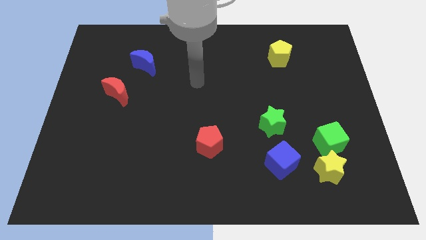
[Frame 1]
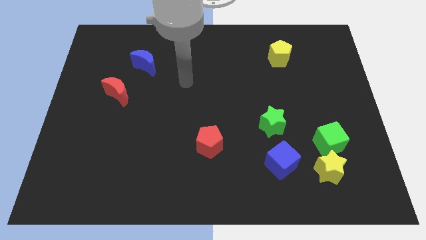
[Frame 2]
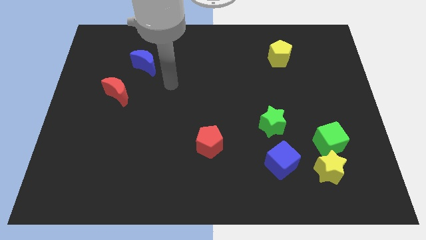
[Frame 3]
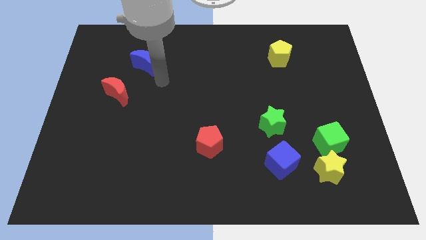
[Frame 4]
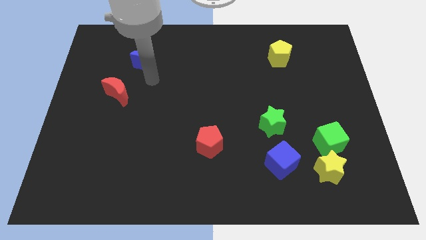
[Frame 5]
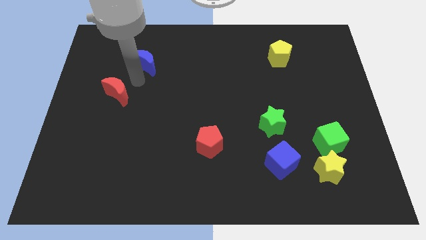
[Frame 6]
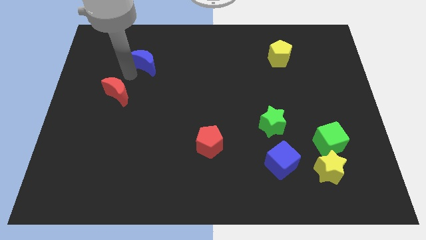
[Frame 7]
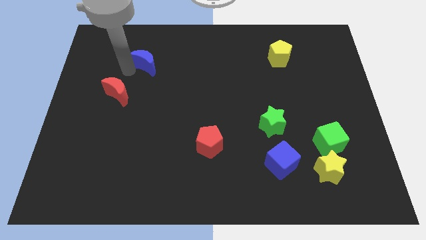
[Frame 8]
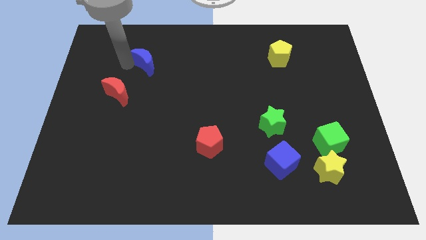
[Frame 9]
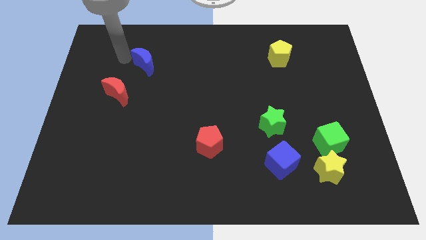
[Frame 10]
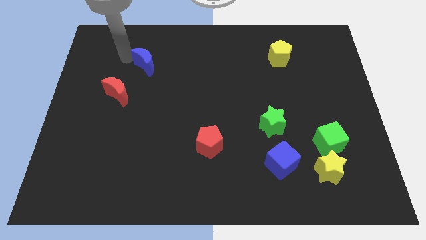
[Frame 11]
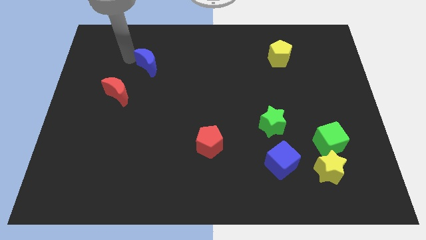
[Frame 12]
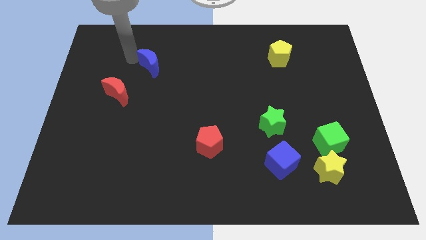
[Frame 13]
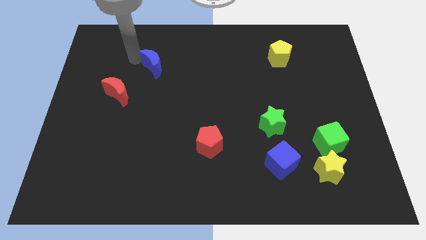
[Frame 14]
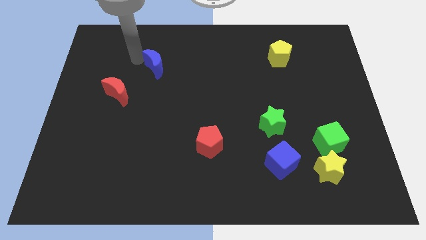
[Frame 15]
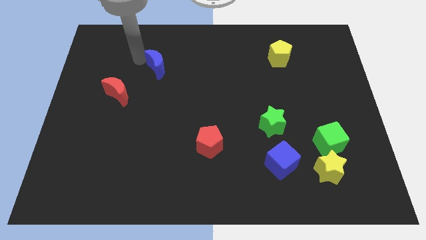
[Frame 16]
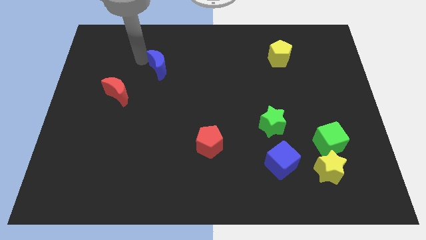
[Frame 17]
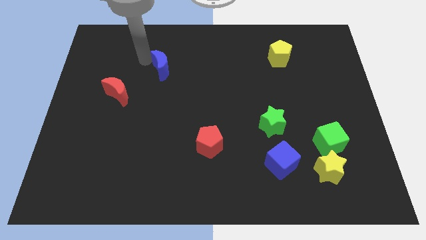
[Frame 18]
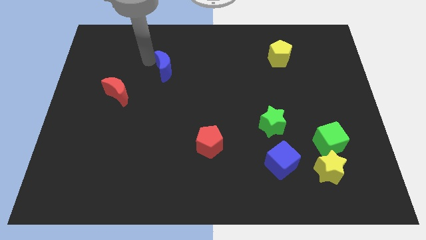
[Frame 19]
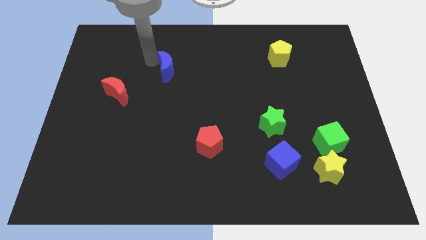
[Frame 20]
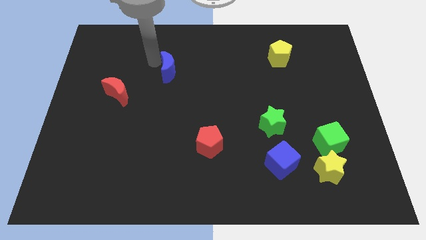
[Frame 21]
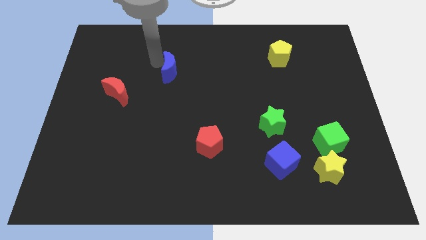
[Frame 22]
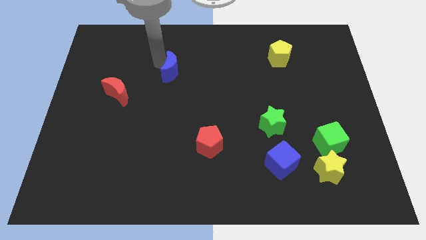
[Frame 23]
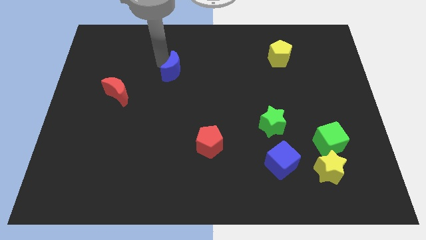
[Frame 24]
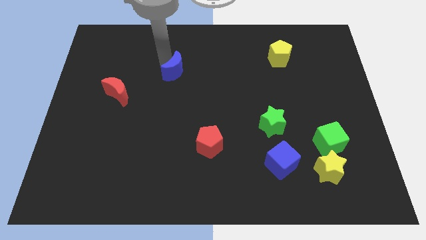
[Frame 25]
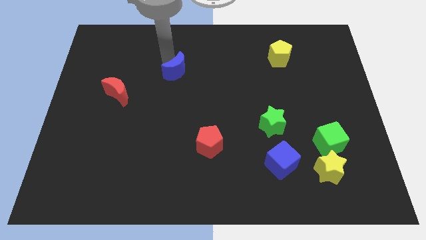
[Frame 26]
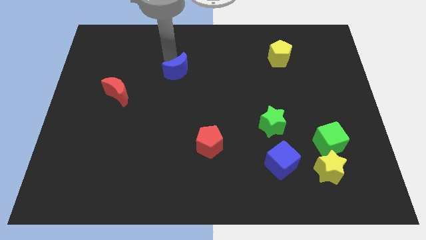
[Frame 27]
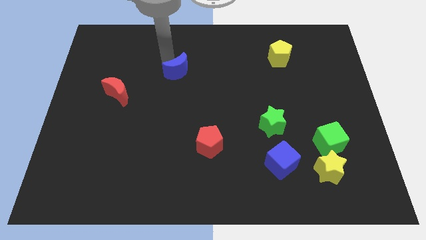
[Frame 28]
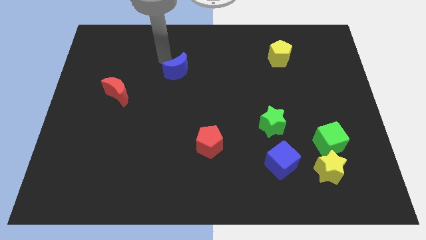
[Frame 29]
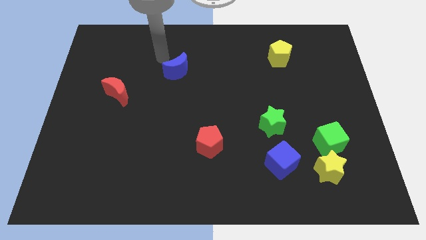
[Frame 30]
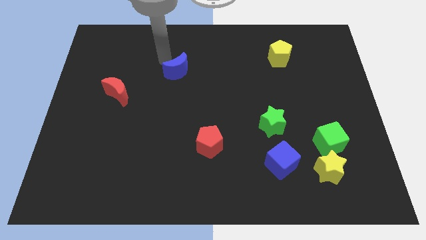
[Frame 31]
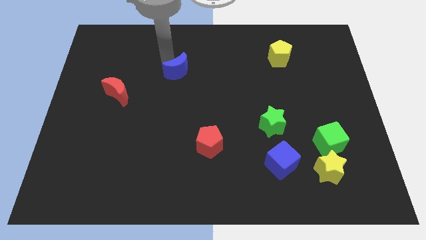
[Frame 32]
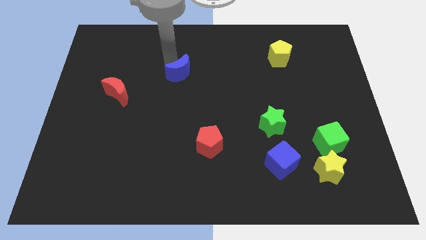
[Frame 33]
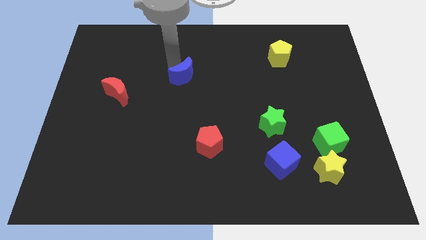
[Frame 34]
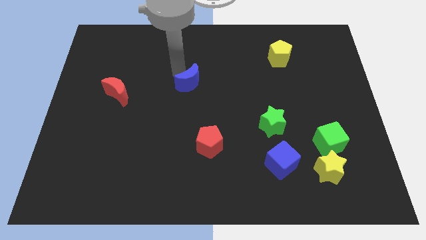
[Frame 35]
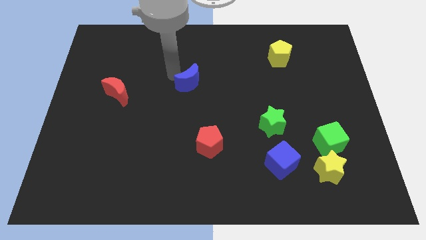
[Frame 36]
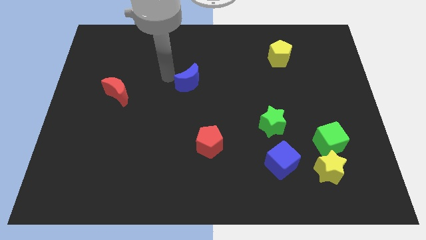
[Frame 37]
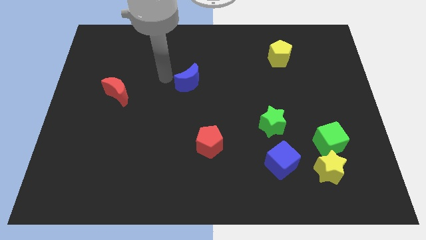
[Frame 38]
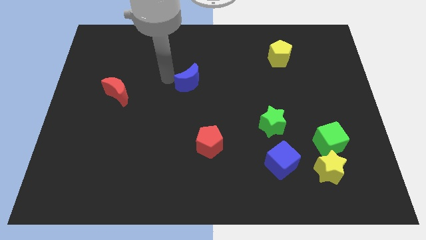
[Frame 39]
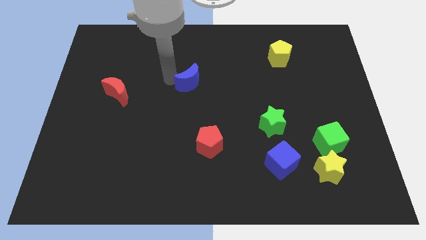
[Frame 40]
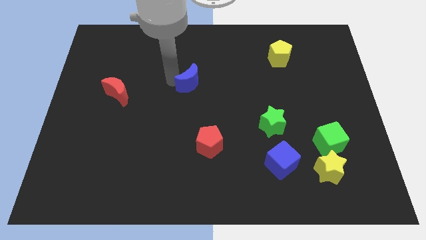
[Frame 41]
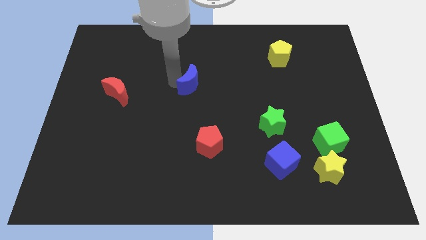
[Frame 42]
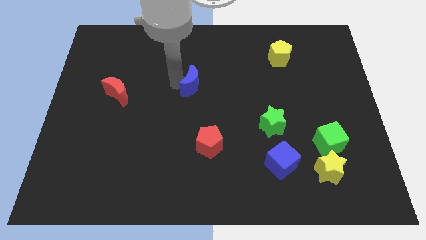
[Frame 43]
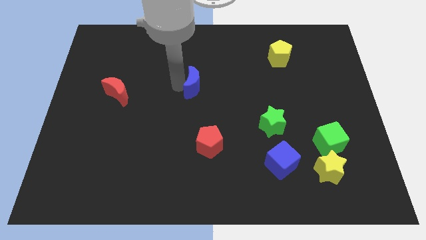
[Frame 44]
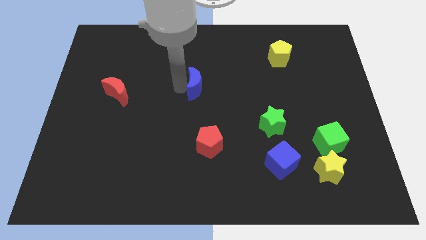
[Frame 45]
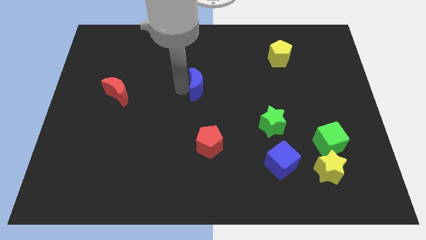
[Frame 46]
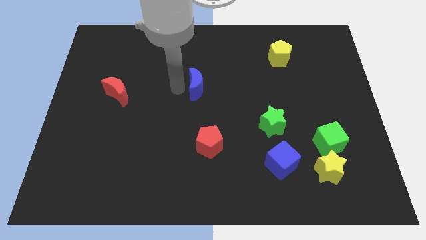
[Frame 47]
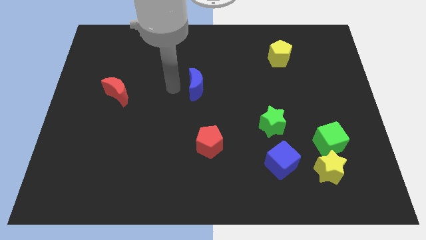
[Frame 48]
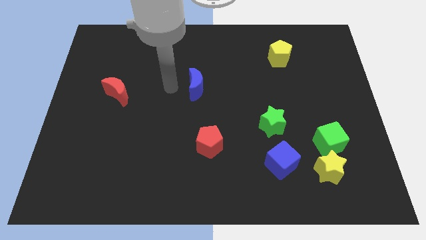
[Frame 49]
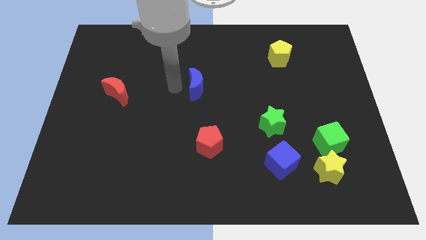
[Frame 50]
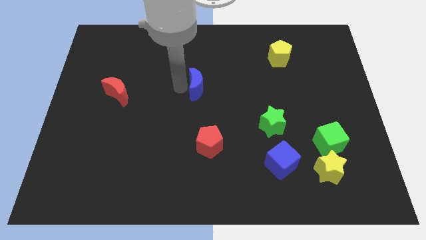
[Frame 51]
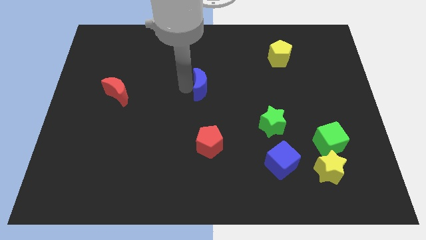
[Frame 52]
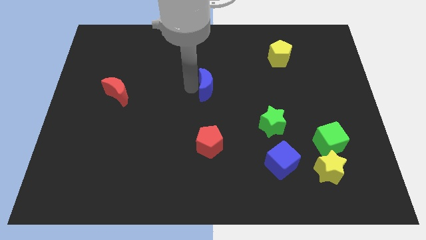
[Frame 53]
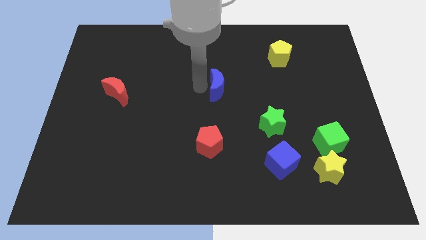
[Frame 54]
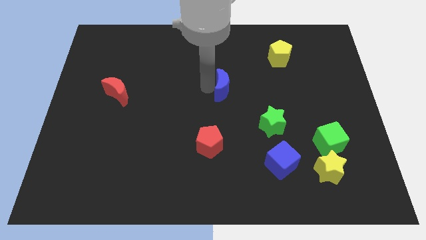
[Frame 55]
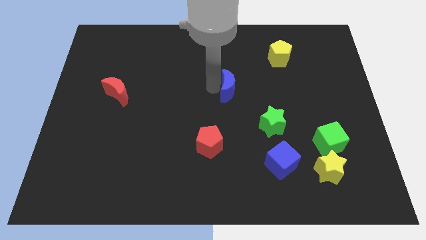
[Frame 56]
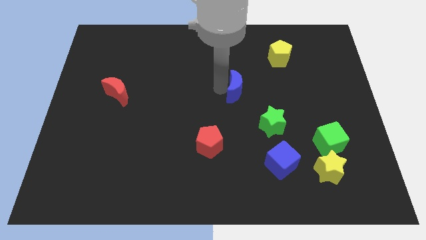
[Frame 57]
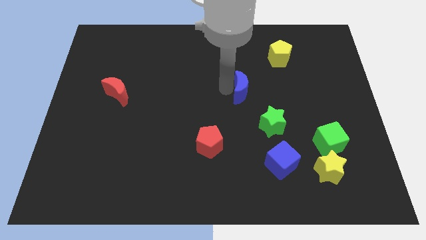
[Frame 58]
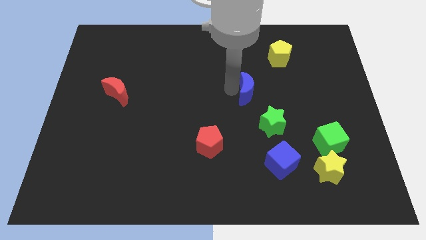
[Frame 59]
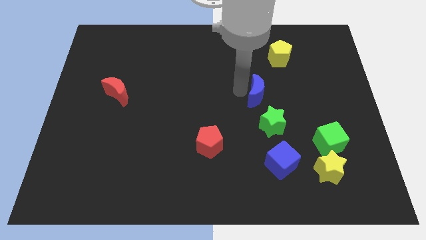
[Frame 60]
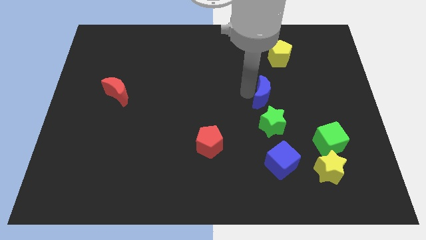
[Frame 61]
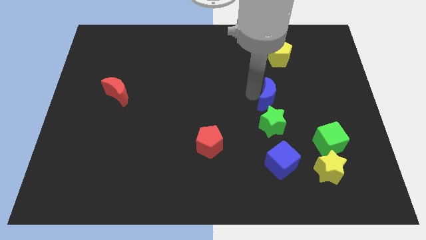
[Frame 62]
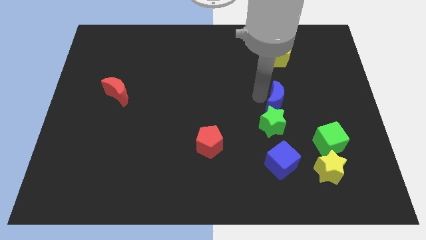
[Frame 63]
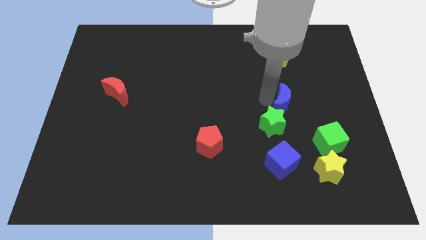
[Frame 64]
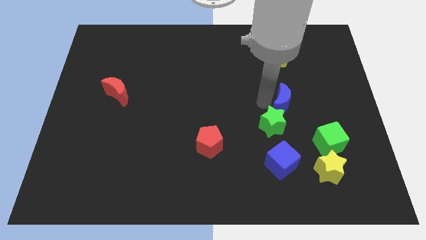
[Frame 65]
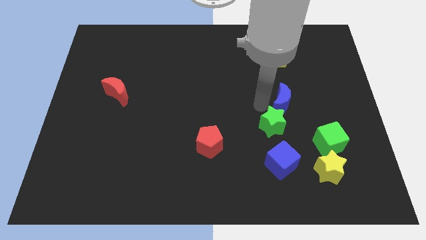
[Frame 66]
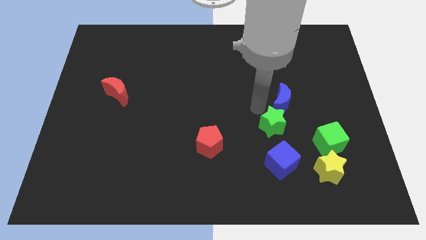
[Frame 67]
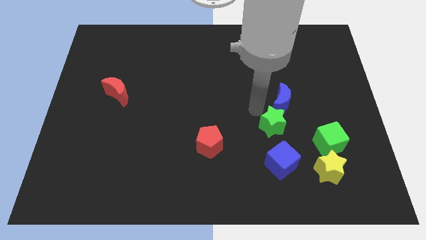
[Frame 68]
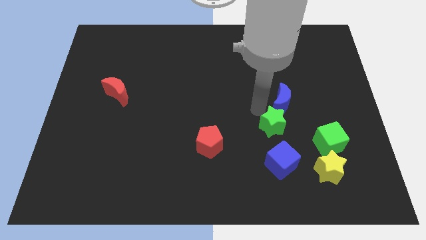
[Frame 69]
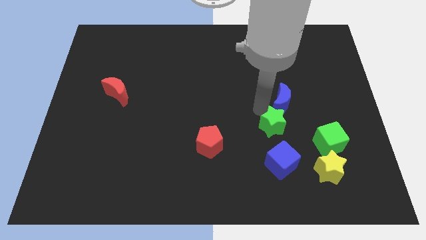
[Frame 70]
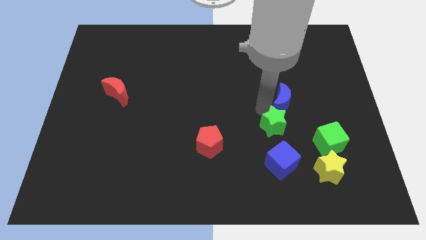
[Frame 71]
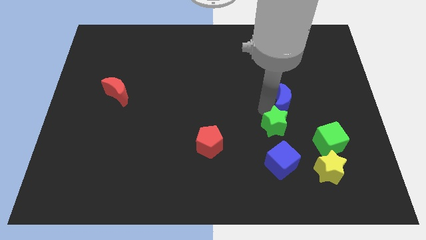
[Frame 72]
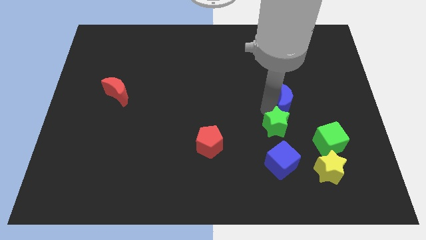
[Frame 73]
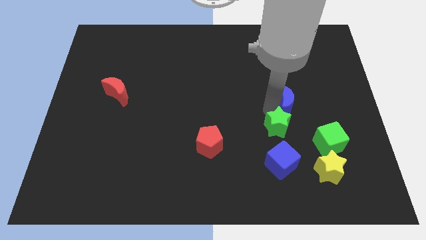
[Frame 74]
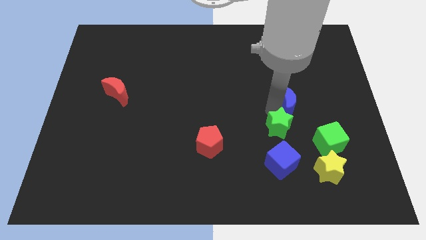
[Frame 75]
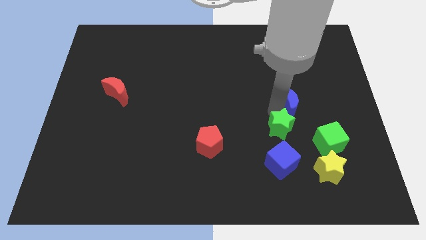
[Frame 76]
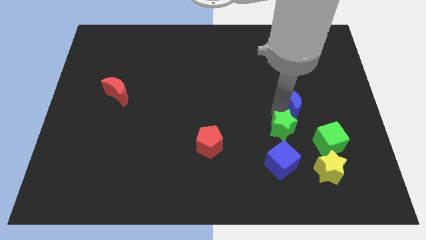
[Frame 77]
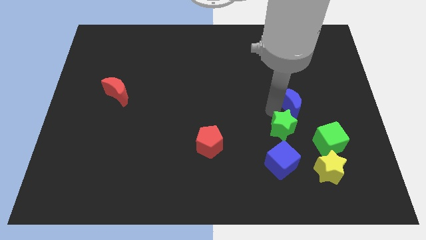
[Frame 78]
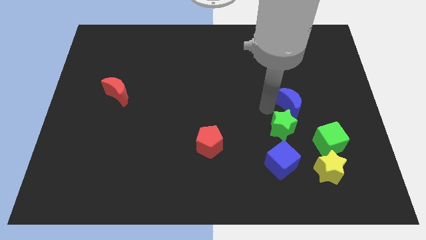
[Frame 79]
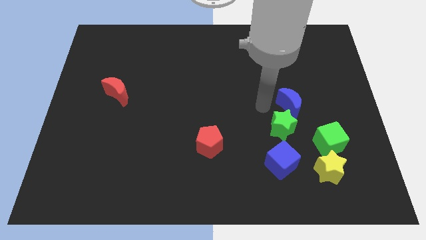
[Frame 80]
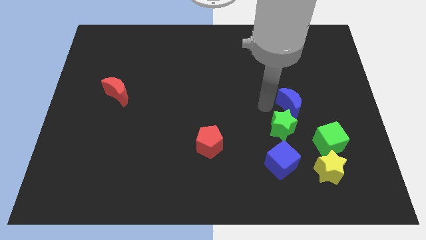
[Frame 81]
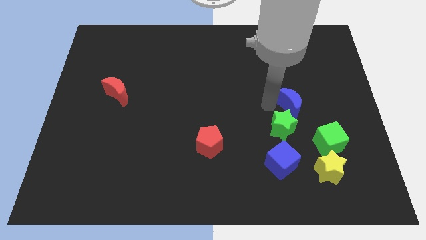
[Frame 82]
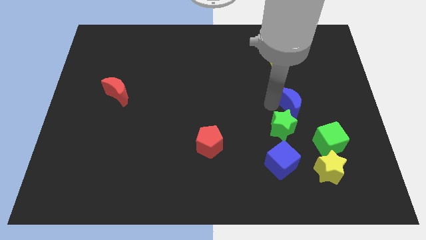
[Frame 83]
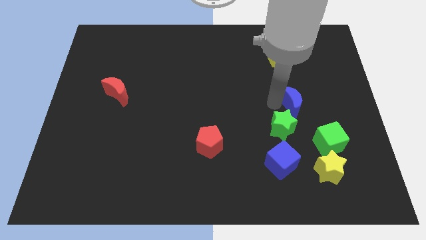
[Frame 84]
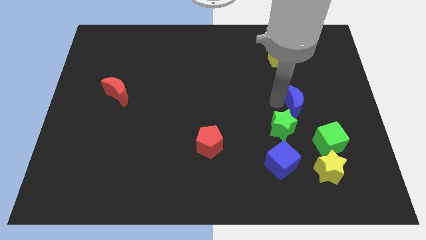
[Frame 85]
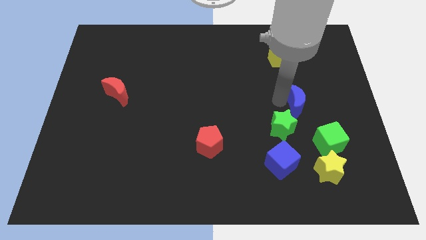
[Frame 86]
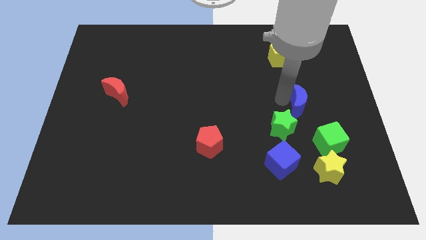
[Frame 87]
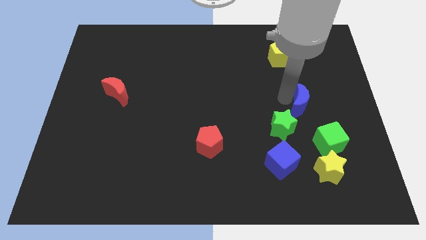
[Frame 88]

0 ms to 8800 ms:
push the blue moon to the top side of the green cube
